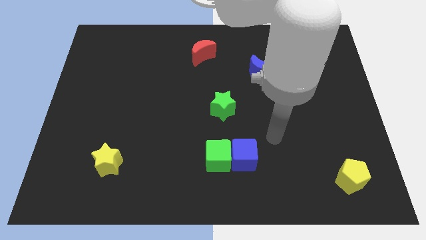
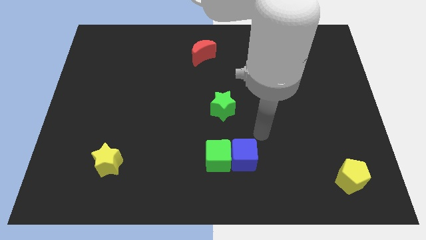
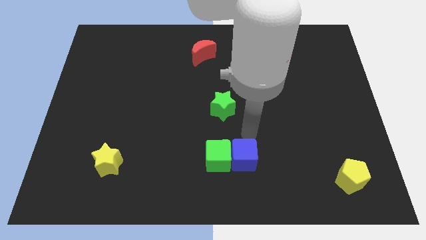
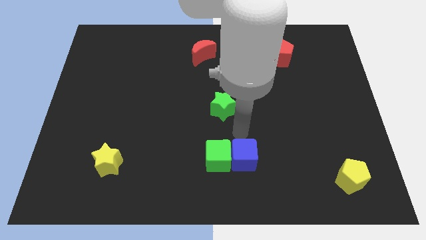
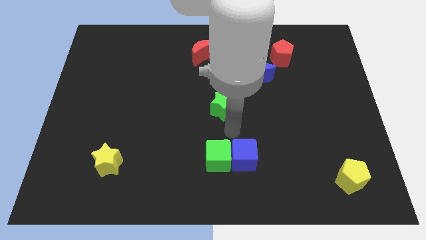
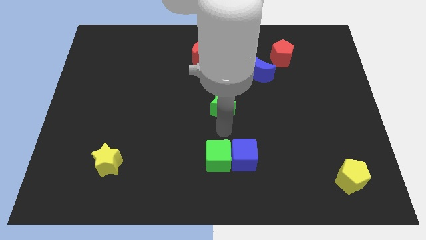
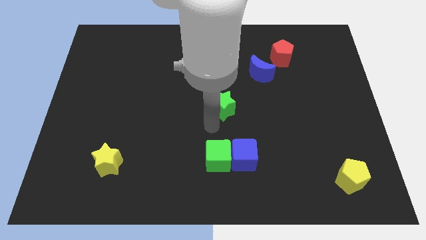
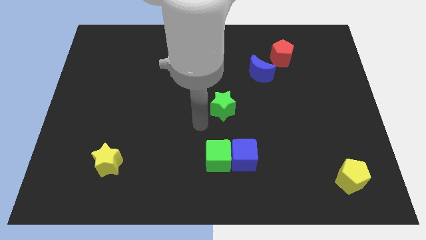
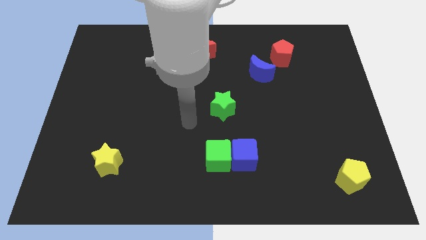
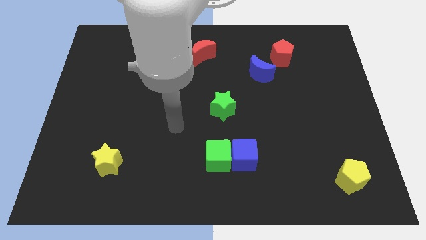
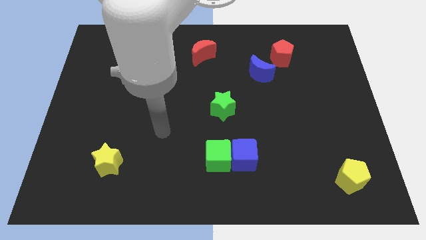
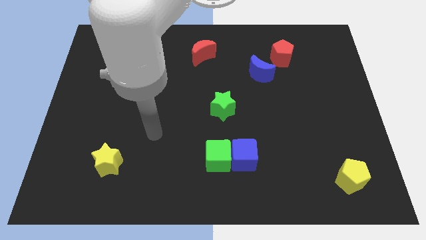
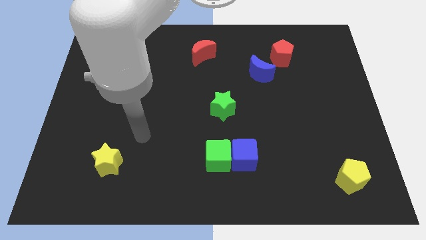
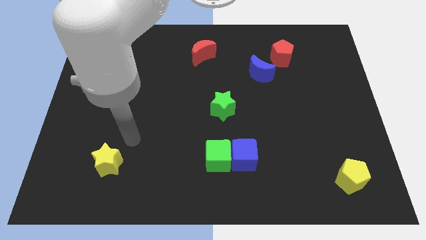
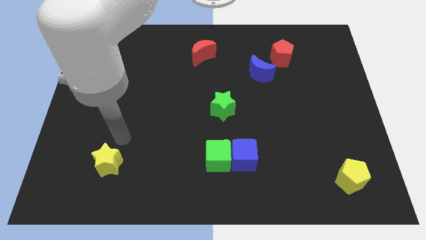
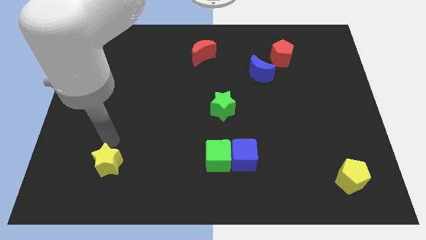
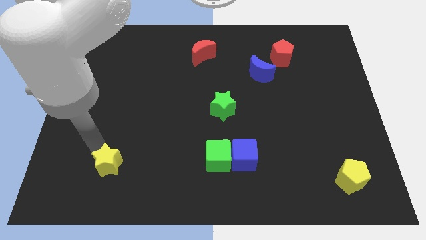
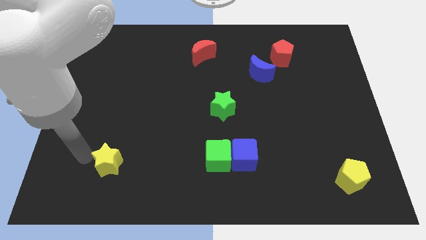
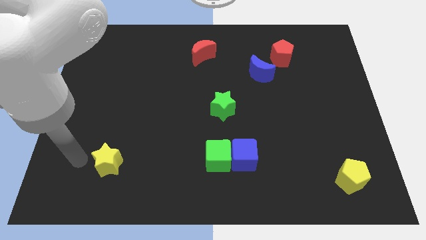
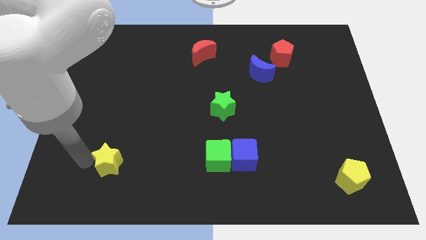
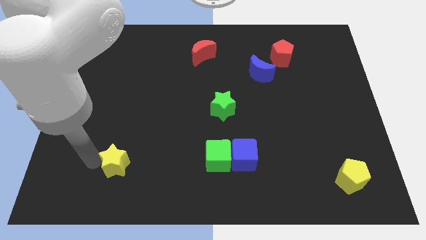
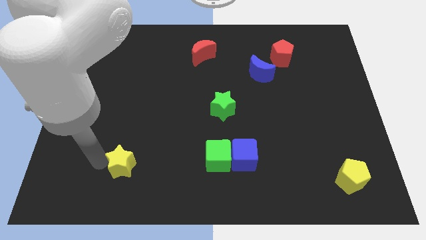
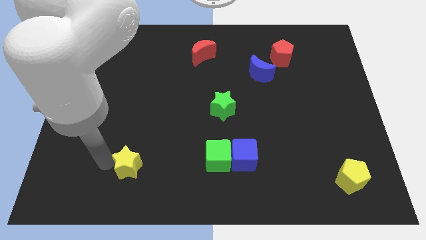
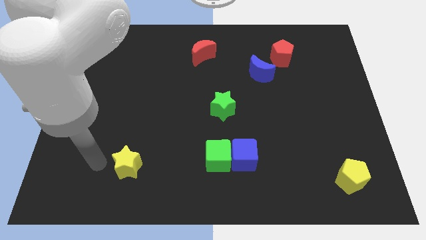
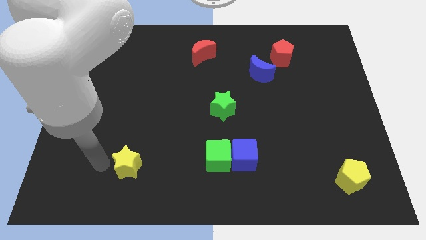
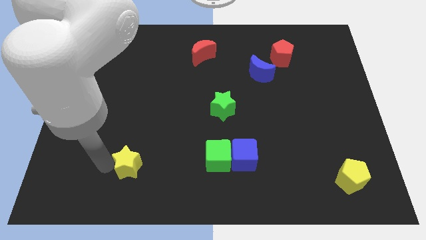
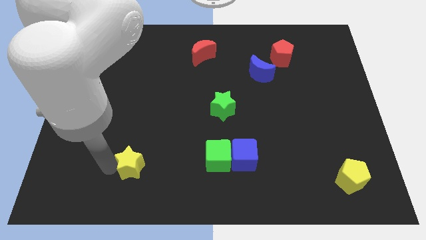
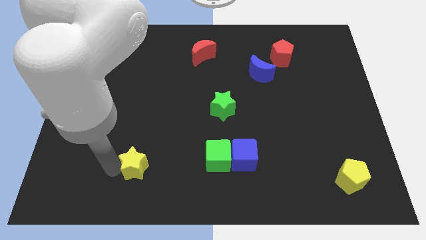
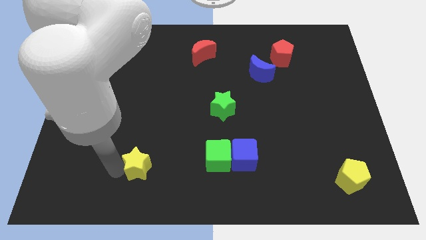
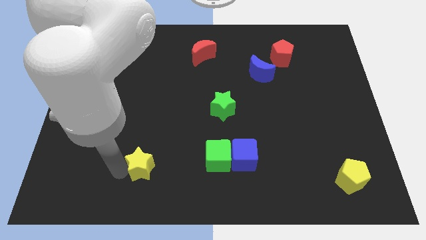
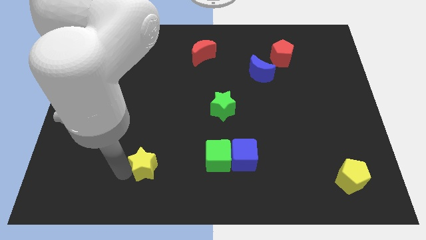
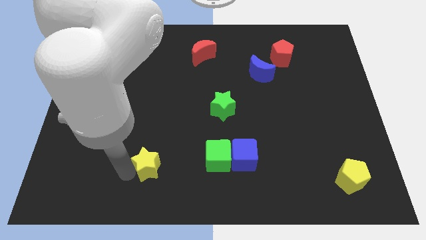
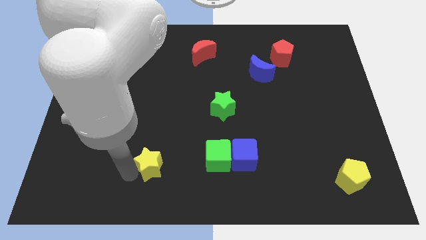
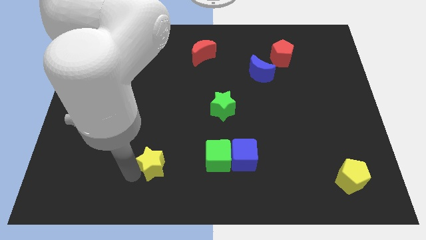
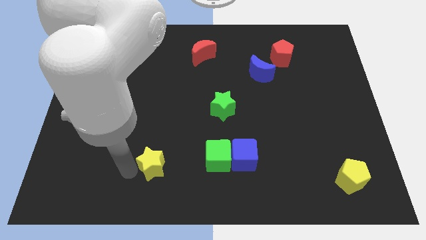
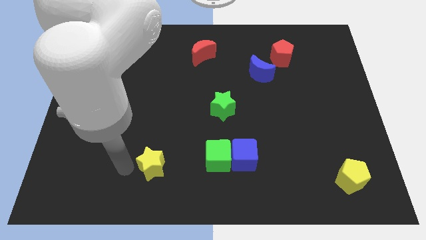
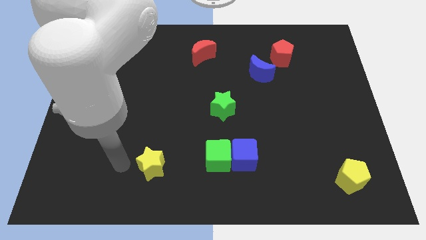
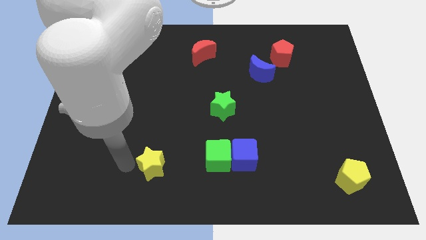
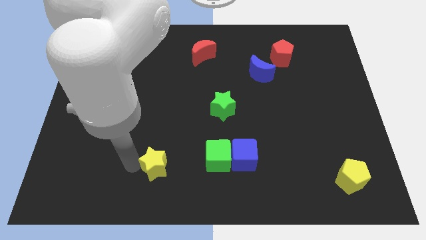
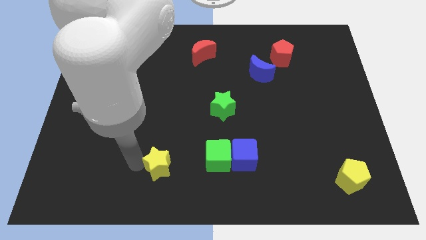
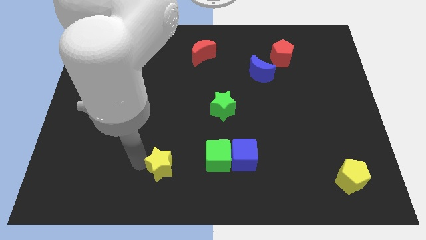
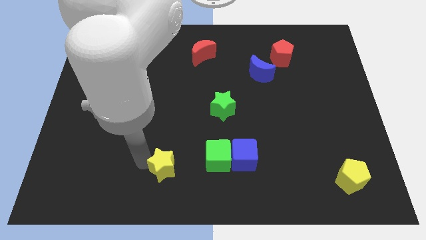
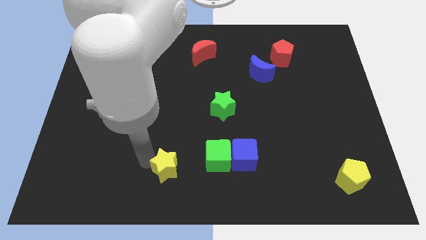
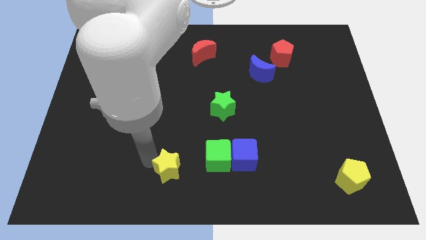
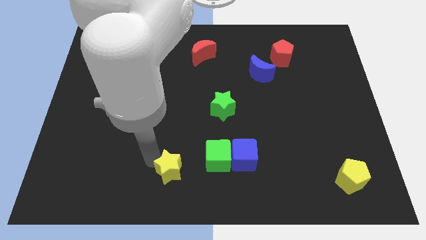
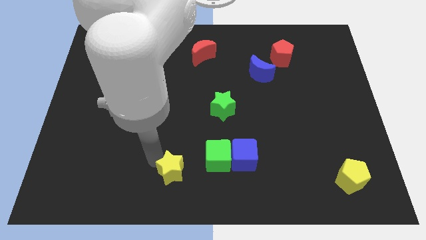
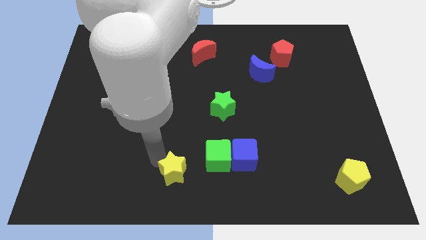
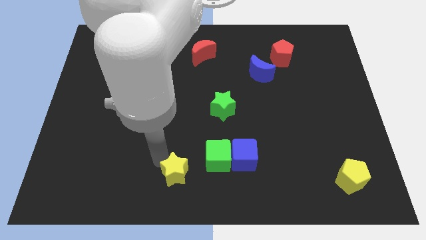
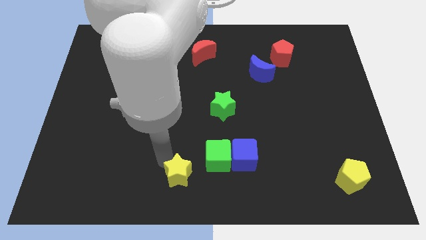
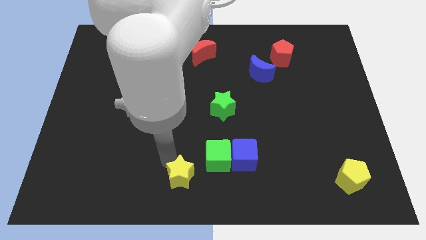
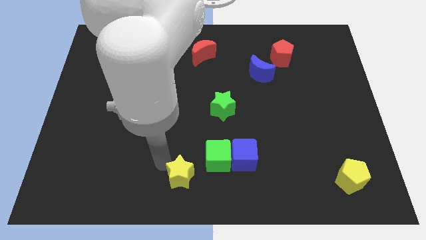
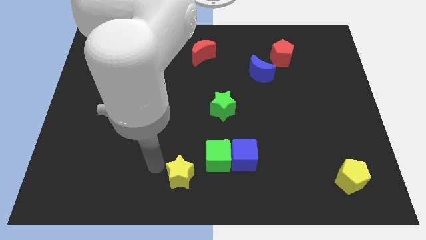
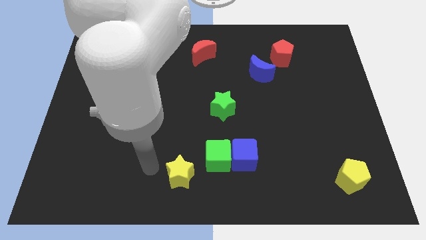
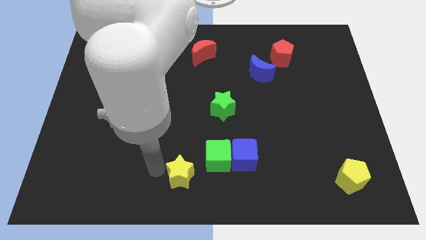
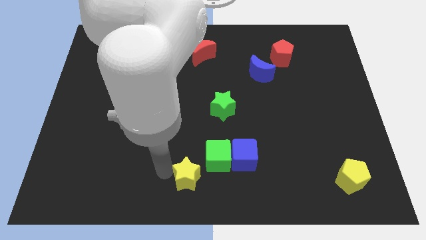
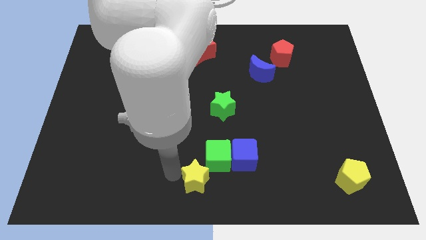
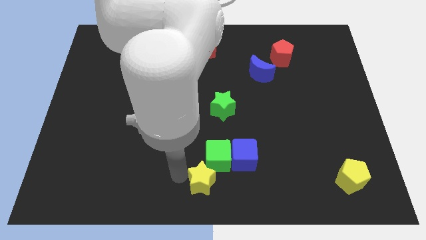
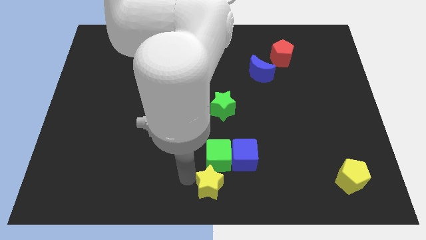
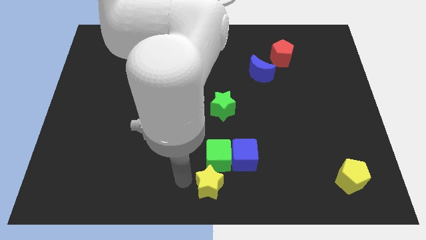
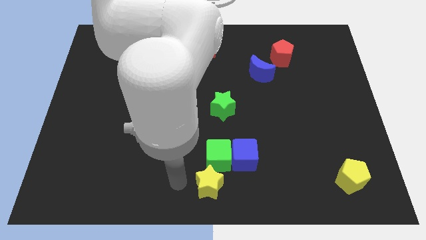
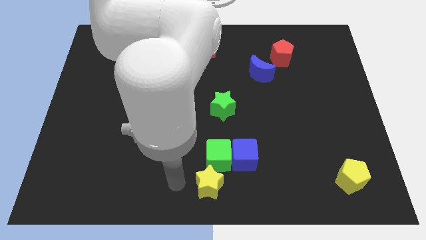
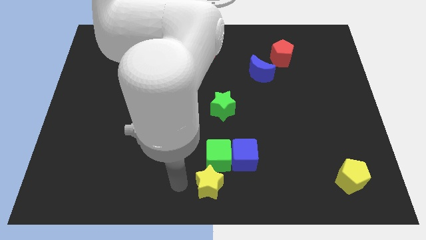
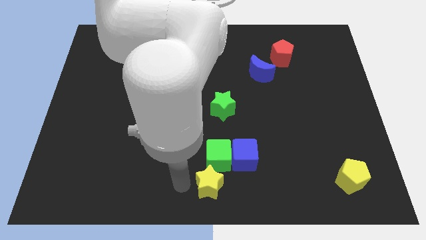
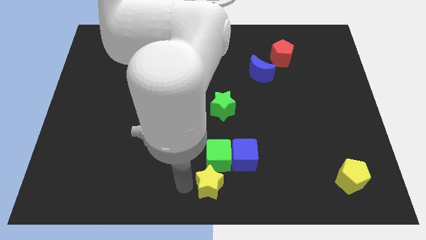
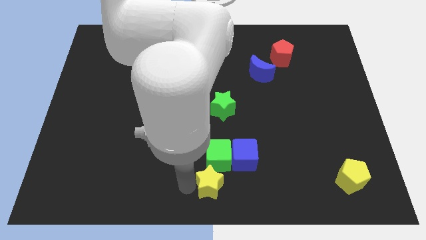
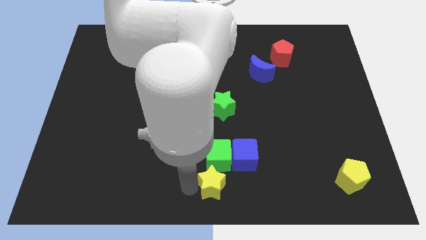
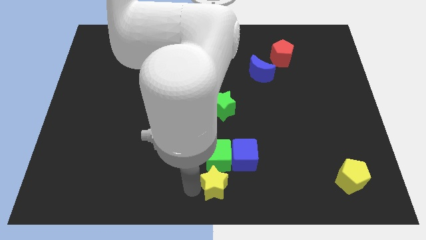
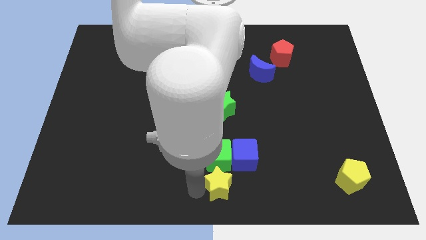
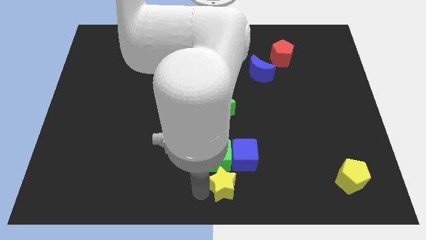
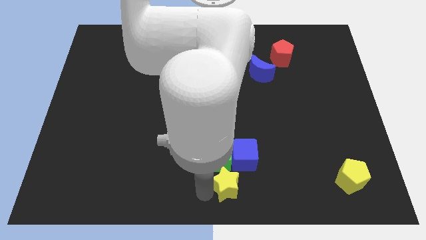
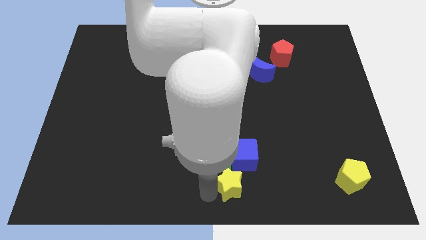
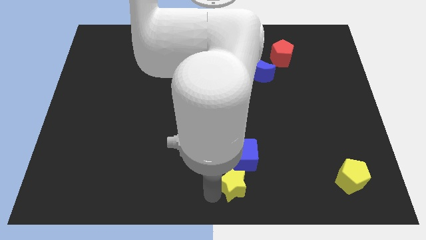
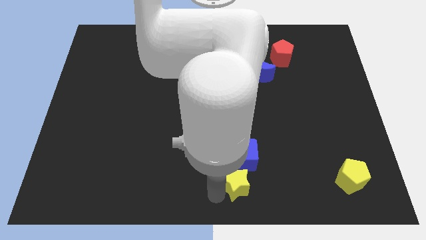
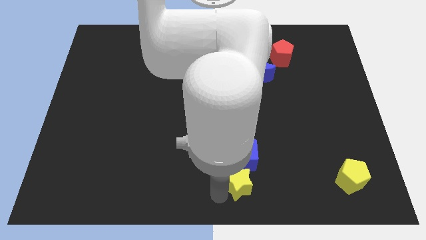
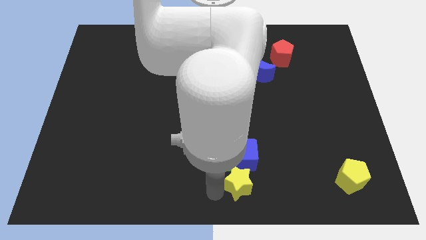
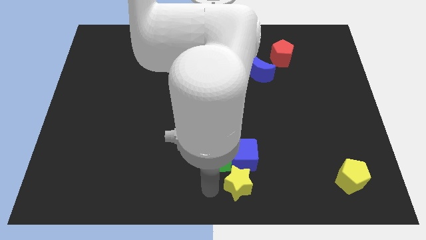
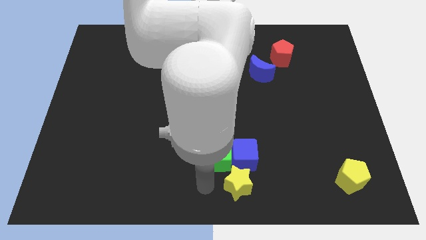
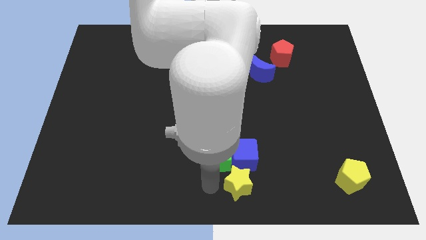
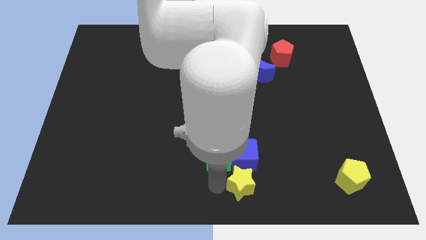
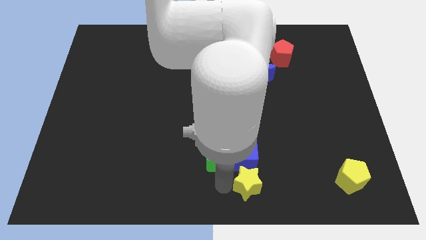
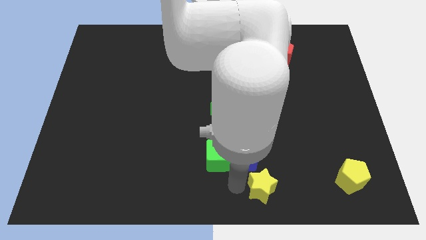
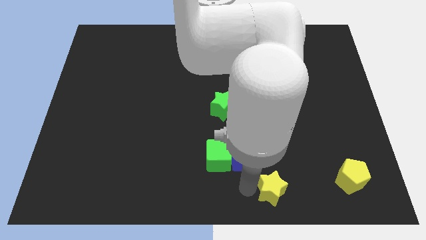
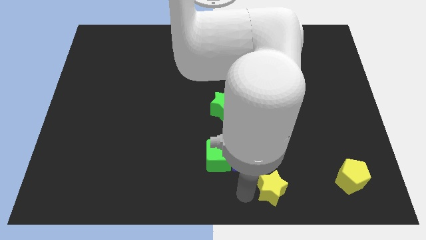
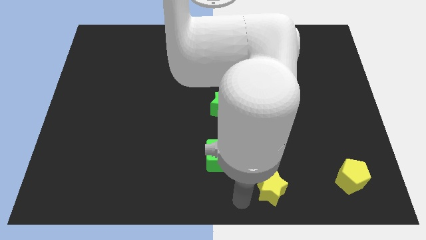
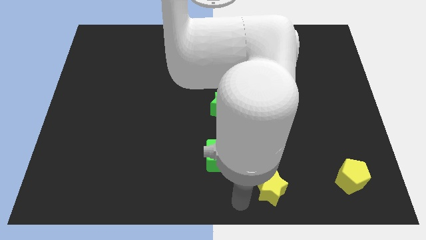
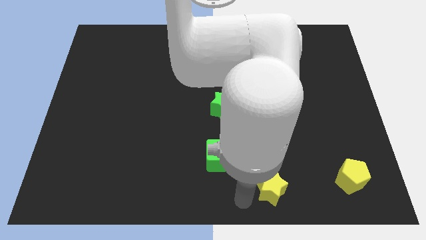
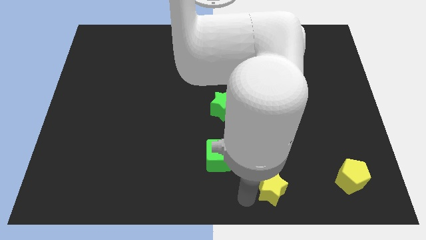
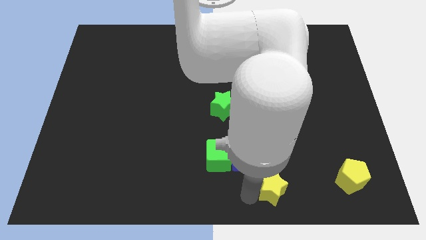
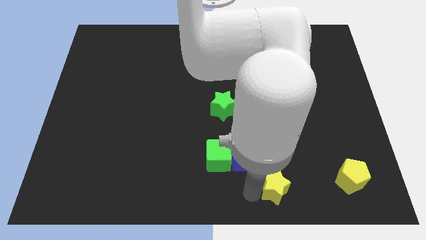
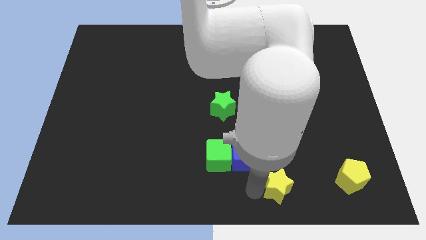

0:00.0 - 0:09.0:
put the yellow star left of the yellow pentagon
